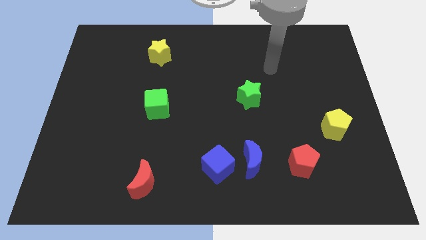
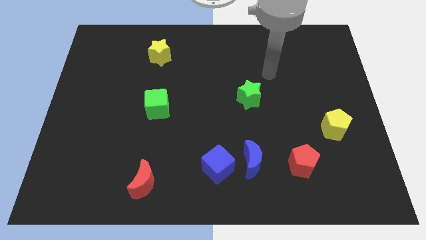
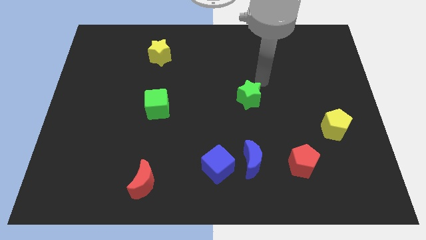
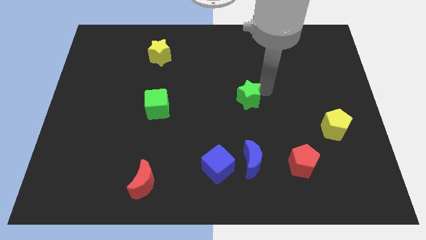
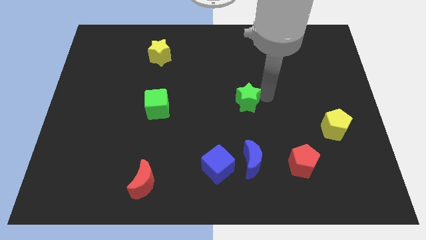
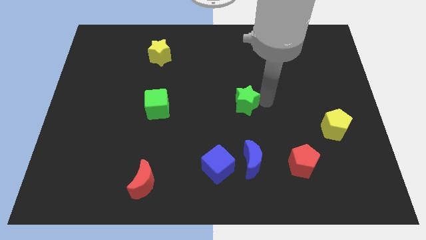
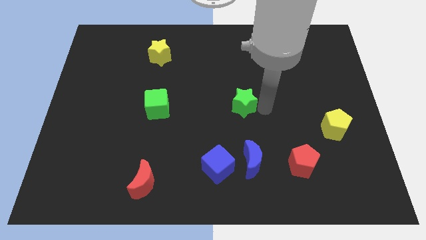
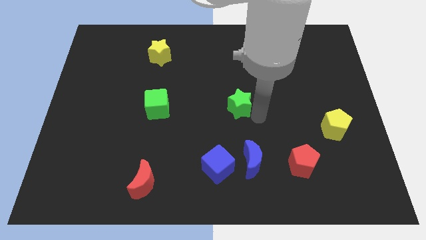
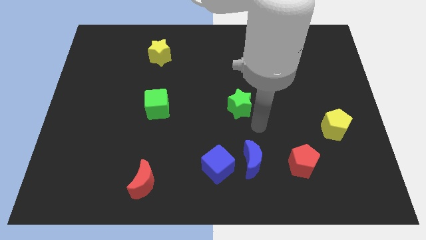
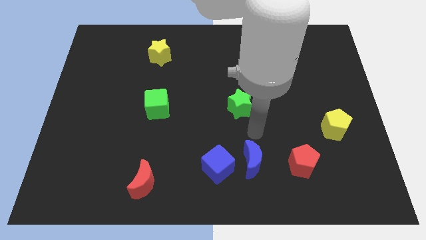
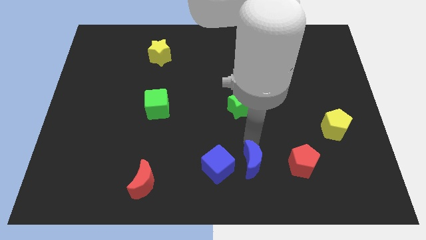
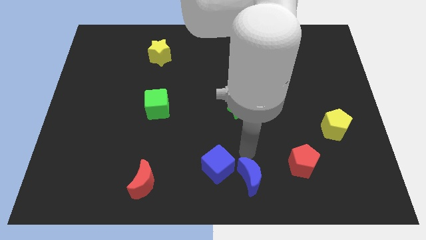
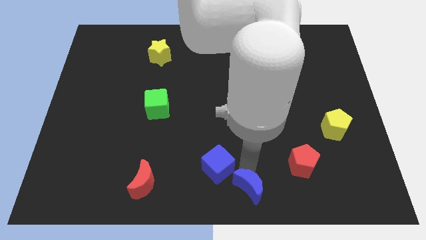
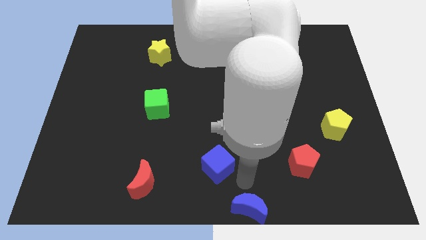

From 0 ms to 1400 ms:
pull the blue cube apart from the blue moon

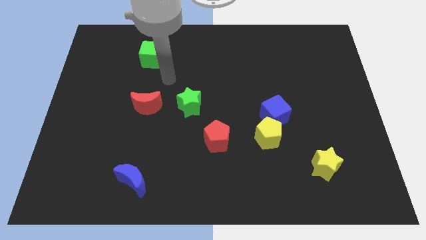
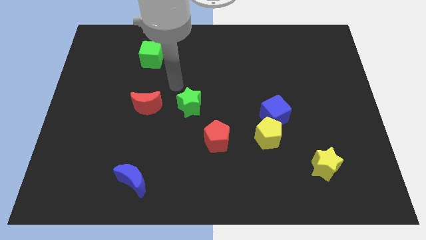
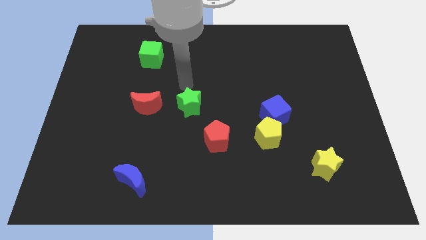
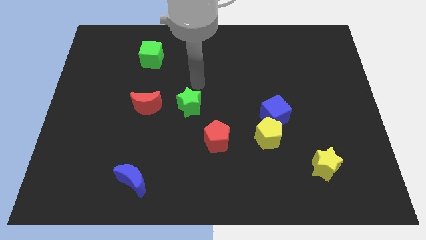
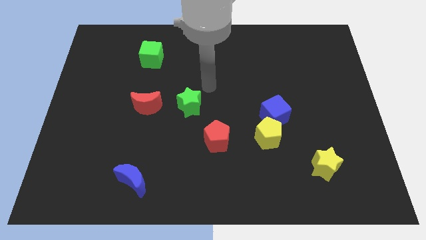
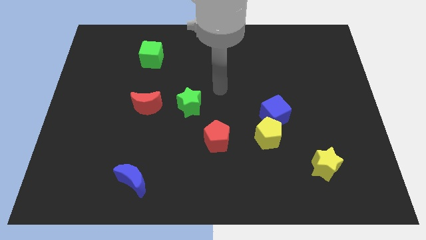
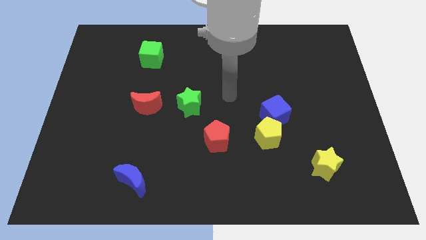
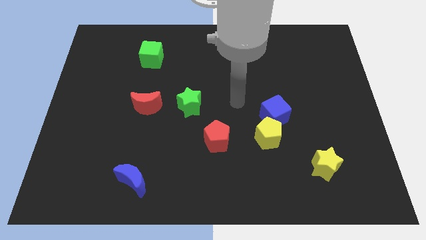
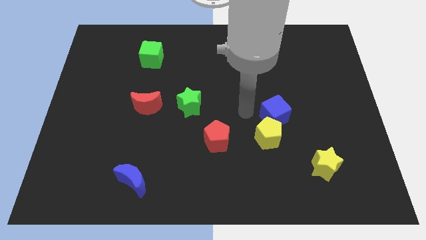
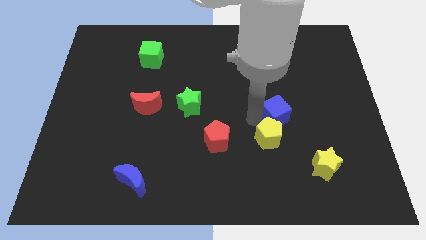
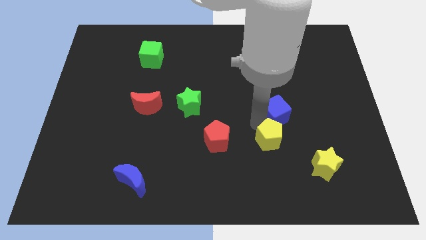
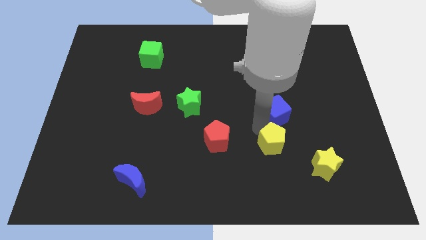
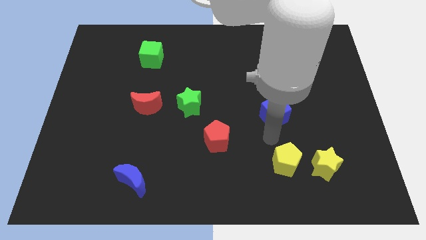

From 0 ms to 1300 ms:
pull the blue cube apart from the yellow pentagon

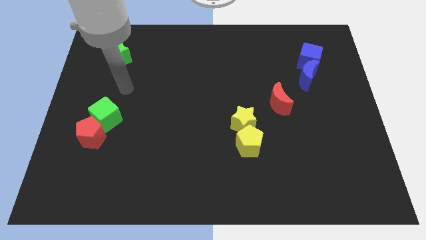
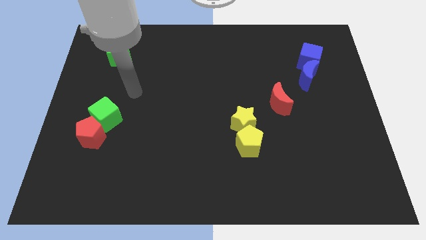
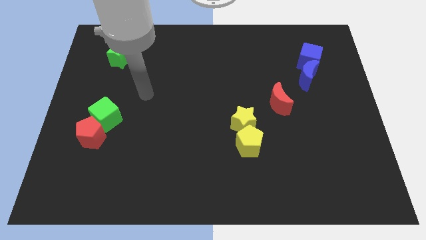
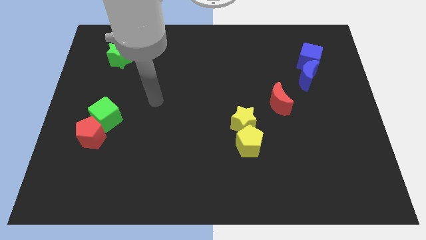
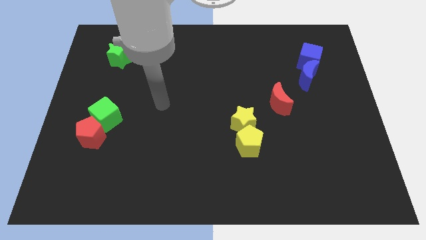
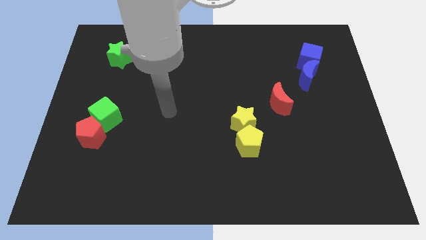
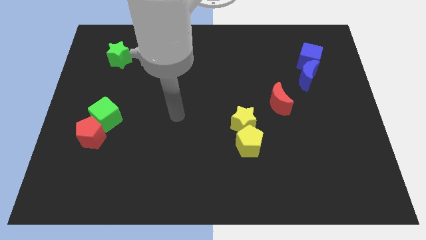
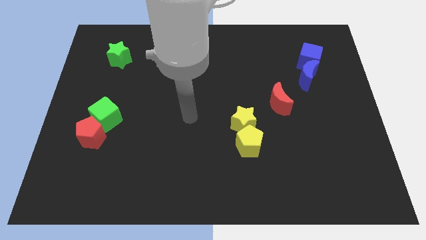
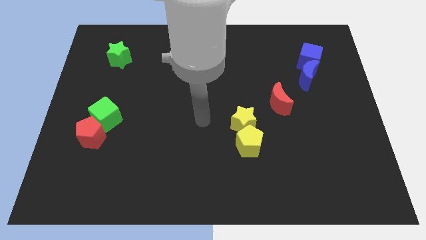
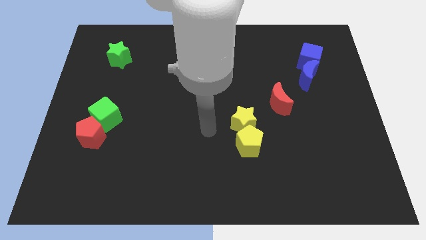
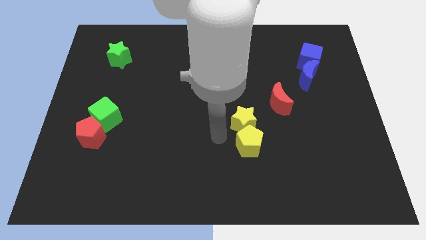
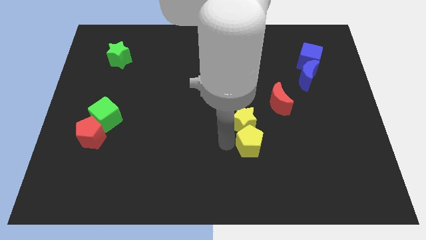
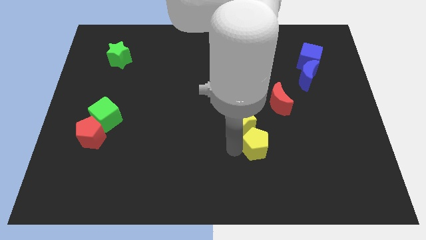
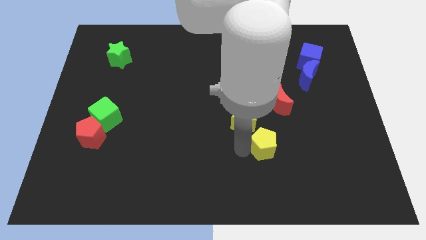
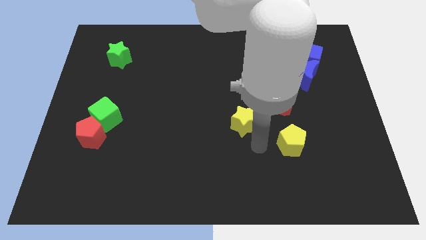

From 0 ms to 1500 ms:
separate the yellow star from the yellow pentagon

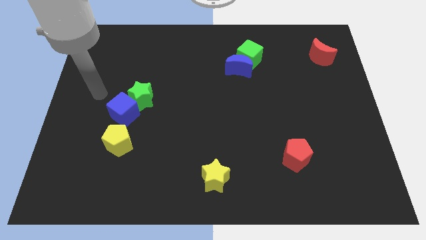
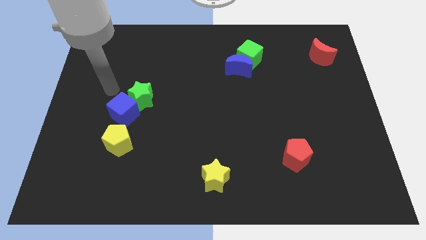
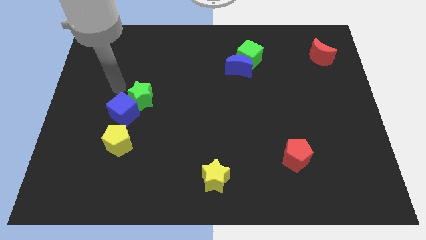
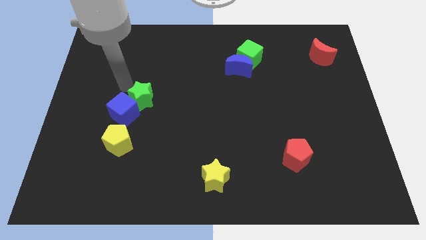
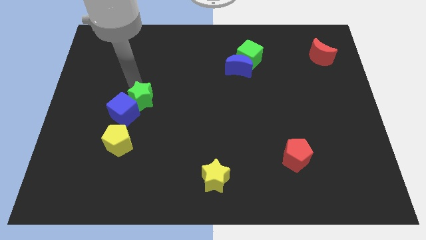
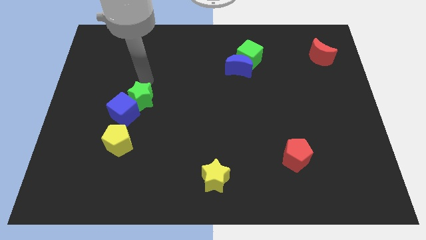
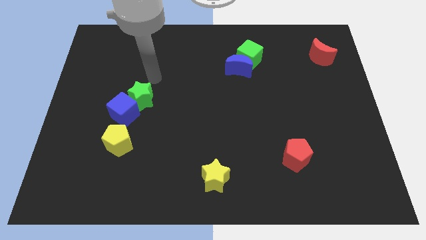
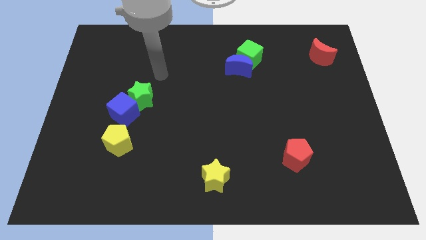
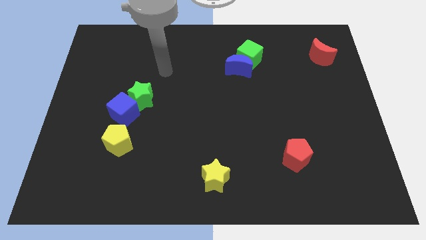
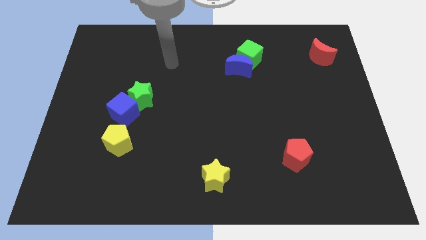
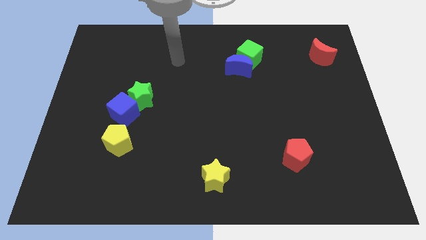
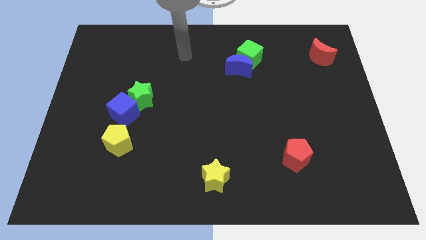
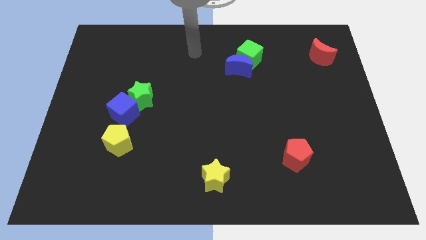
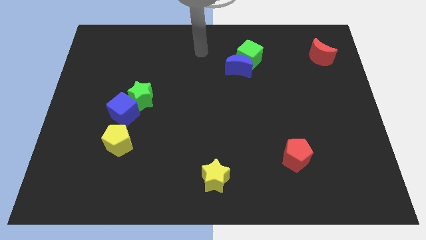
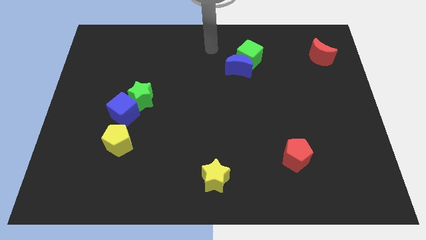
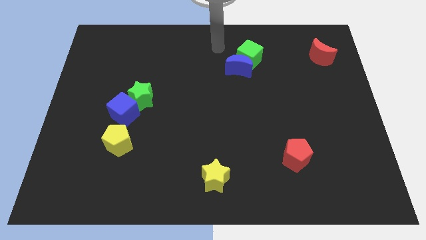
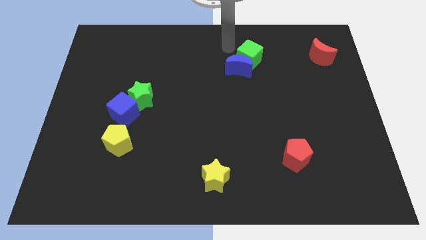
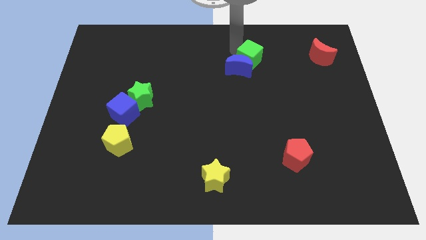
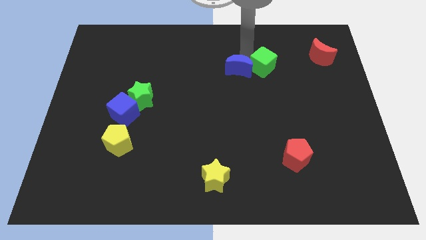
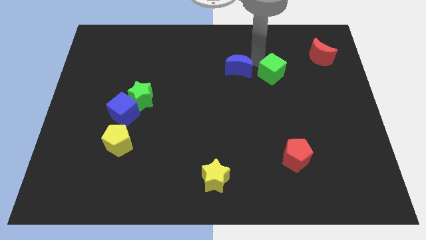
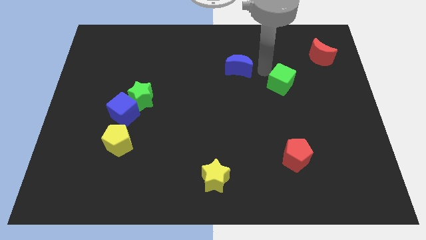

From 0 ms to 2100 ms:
move the blue moon away from the green cube

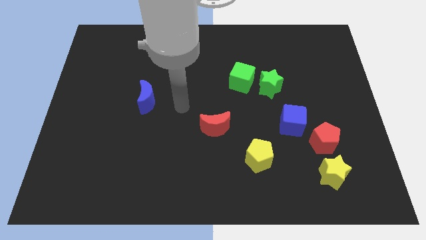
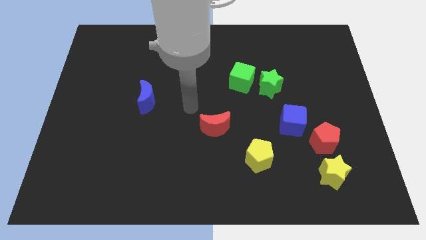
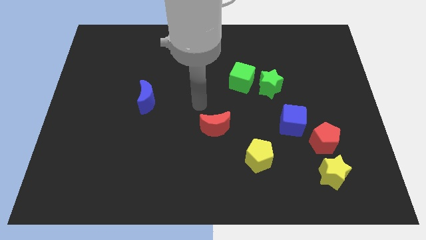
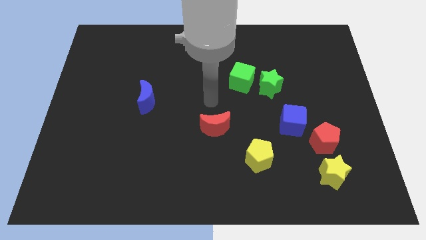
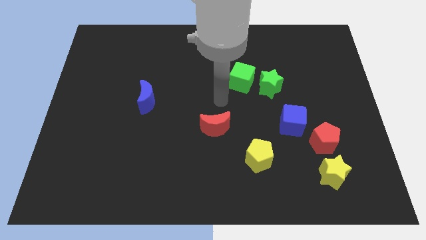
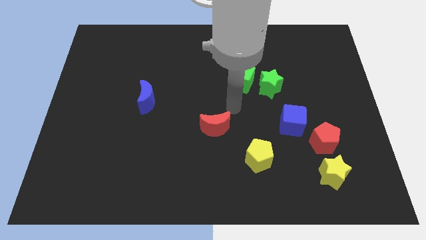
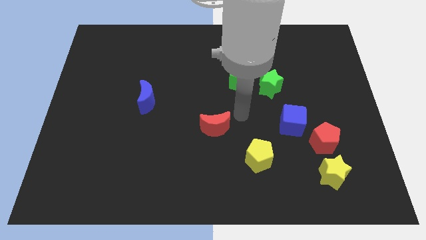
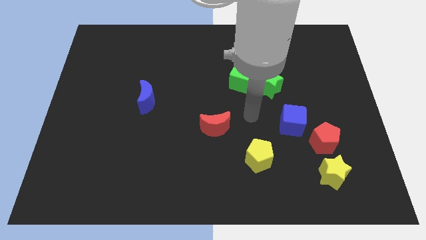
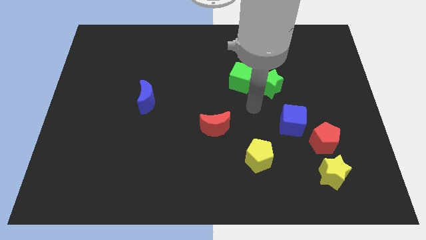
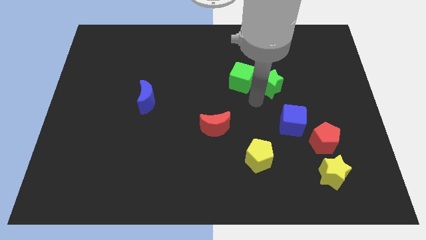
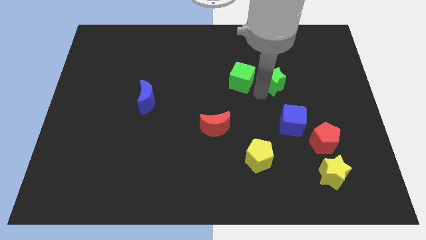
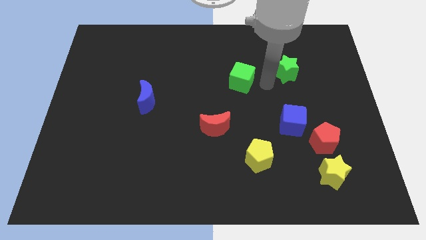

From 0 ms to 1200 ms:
pull the green cube apart from the green star

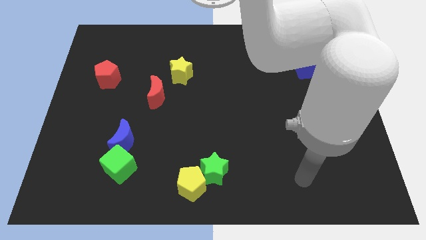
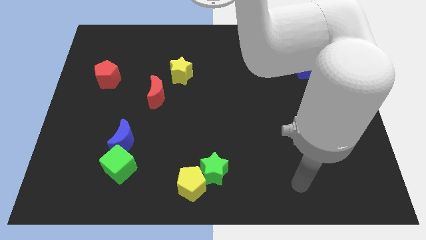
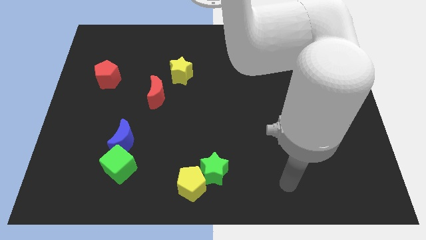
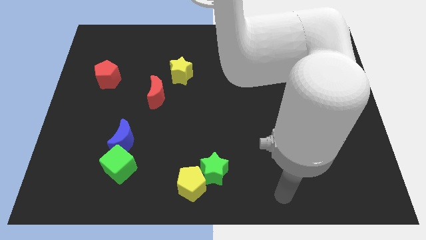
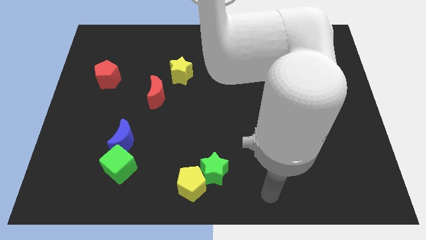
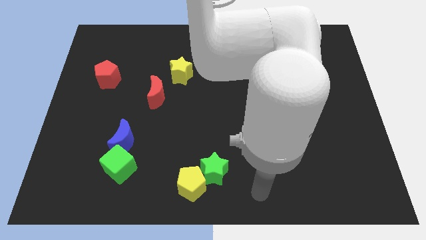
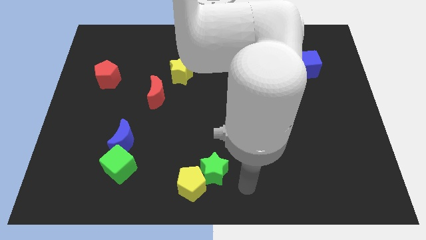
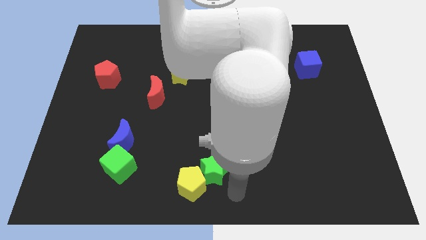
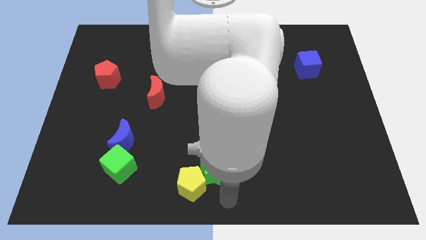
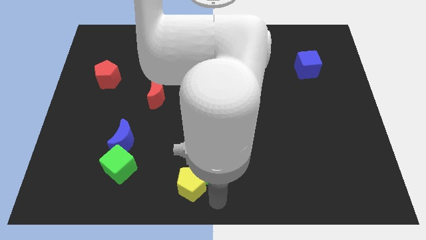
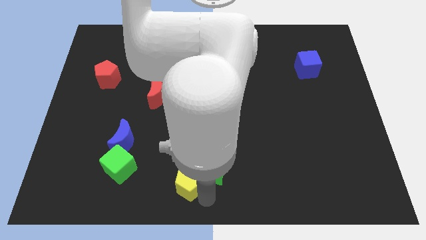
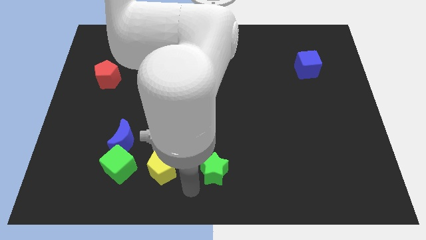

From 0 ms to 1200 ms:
move the green star away from the yellow pentagon

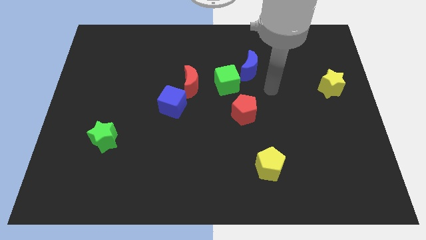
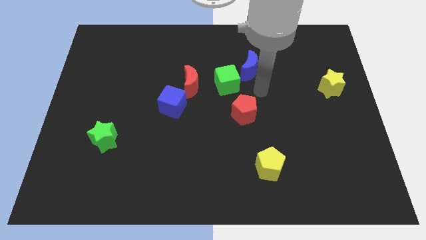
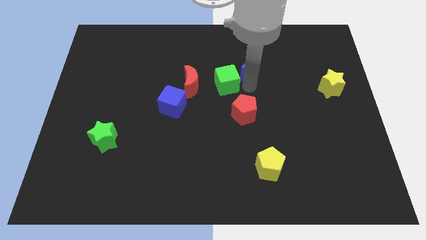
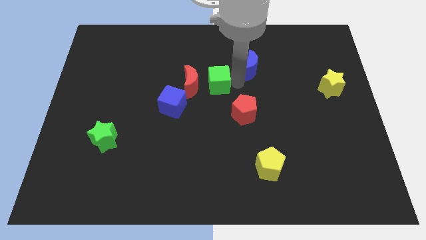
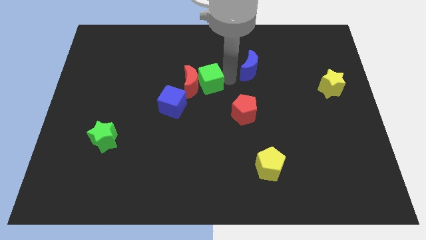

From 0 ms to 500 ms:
separate the blue moon from the green cube
